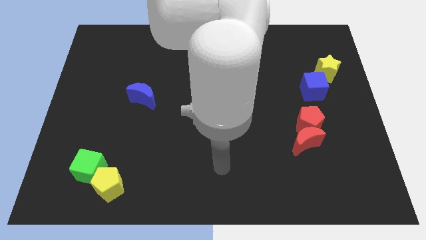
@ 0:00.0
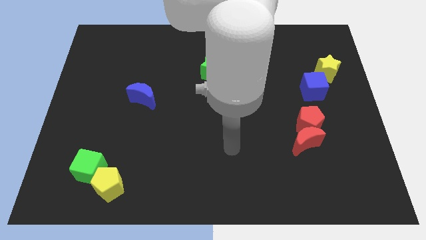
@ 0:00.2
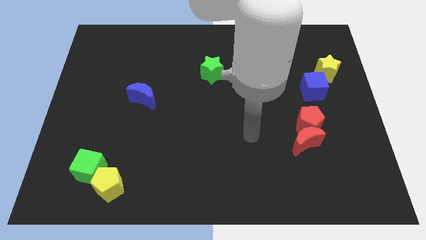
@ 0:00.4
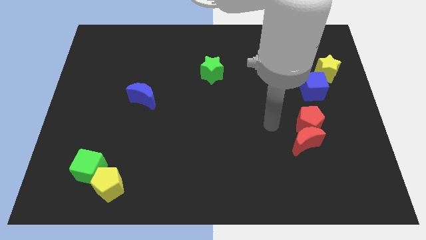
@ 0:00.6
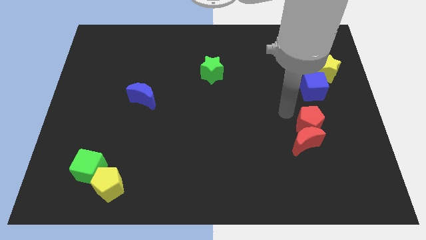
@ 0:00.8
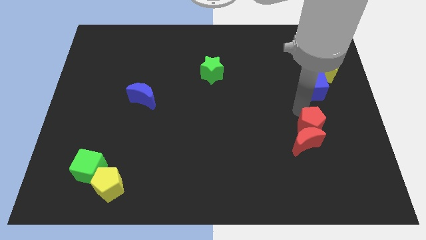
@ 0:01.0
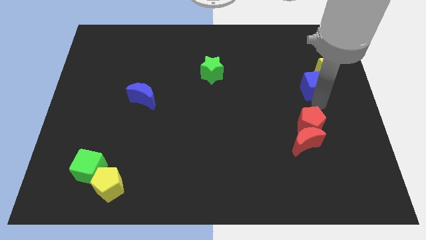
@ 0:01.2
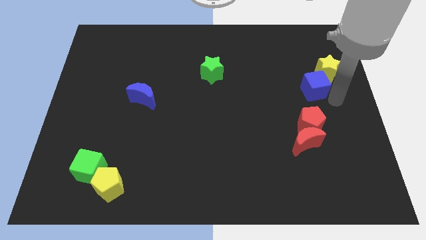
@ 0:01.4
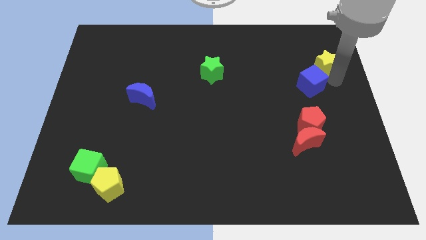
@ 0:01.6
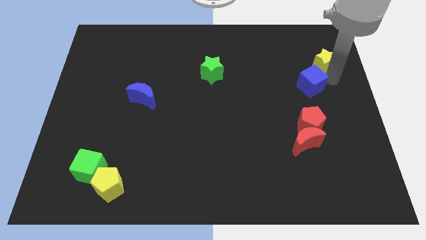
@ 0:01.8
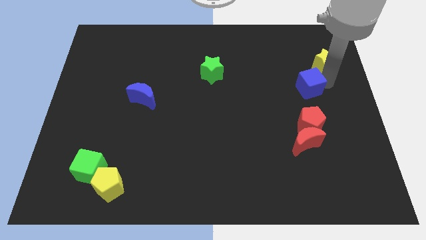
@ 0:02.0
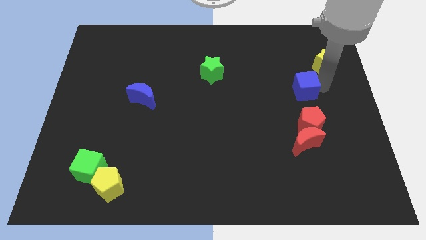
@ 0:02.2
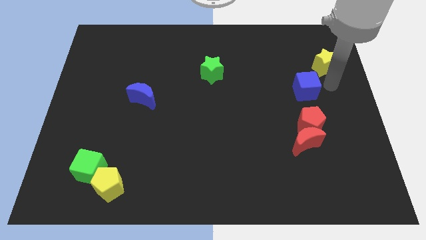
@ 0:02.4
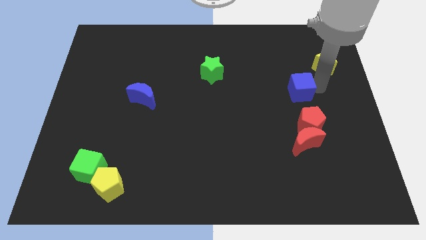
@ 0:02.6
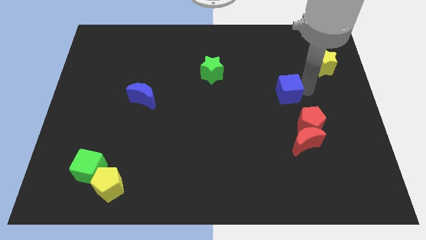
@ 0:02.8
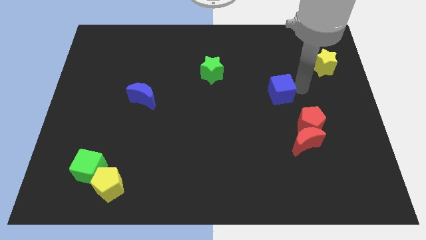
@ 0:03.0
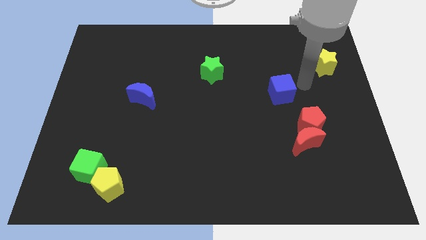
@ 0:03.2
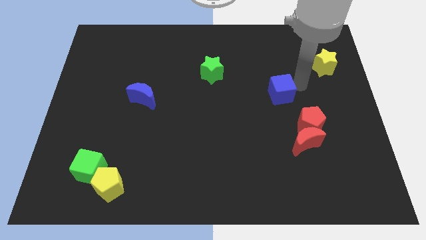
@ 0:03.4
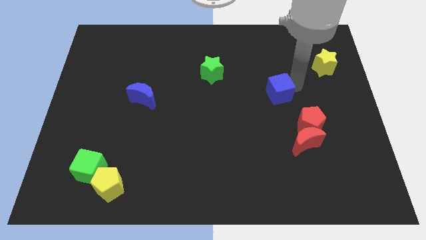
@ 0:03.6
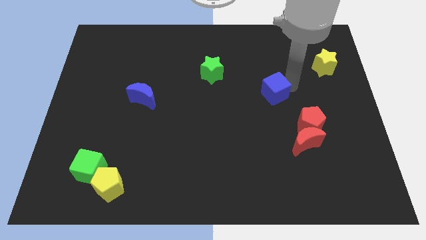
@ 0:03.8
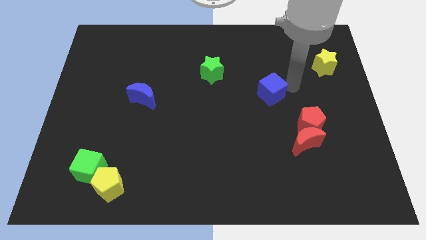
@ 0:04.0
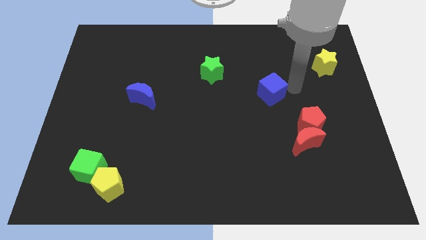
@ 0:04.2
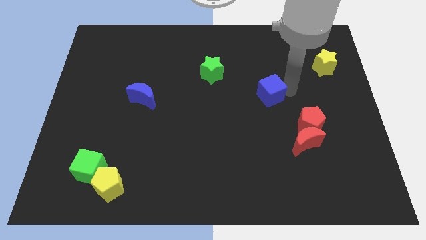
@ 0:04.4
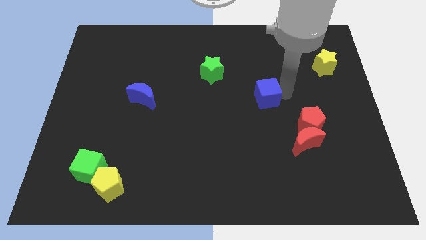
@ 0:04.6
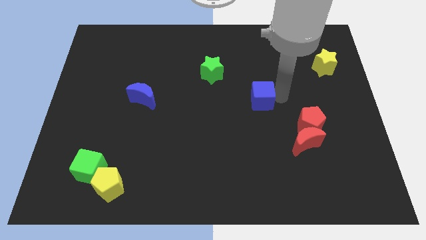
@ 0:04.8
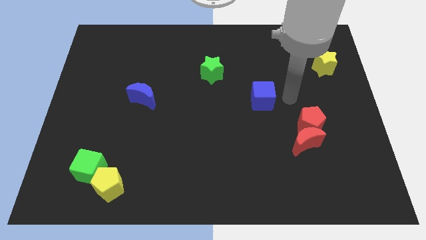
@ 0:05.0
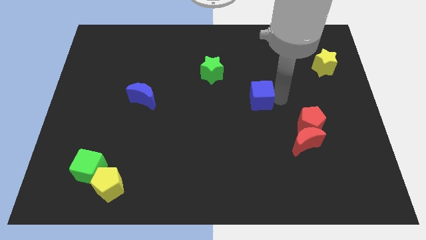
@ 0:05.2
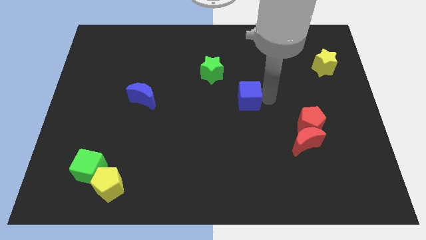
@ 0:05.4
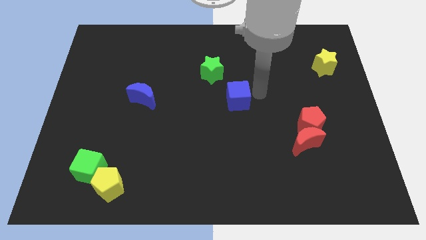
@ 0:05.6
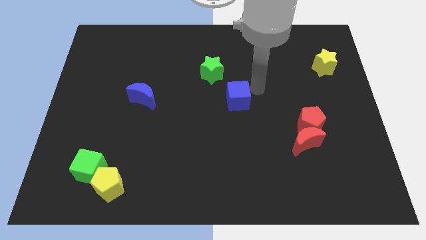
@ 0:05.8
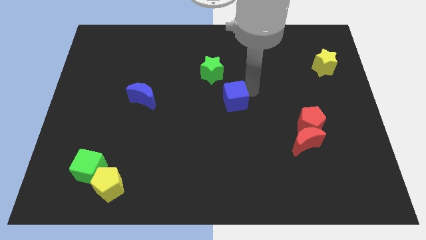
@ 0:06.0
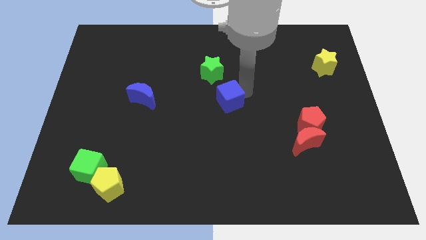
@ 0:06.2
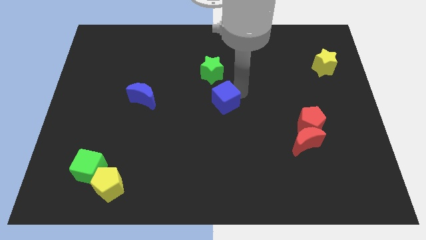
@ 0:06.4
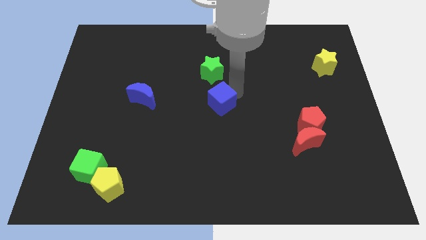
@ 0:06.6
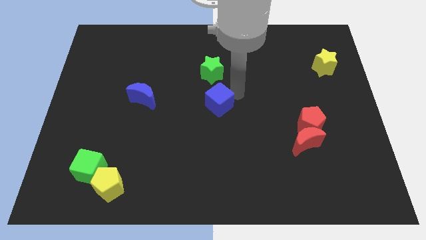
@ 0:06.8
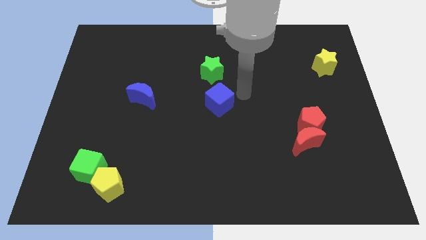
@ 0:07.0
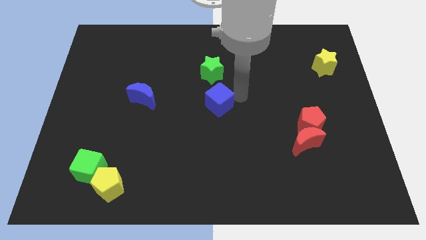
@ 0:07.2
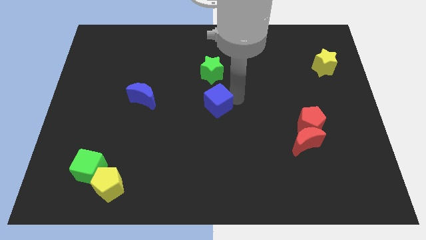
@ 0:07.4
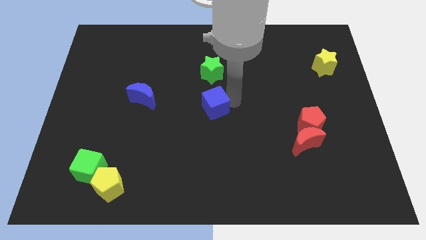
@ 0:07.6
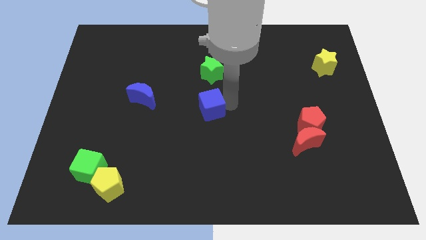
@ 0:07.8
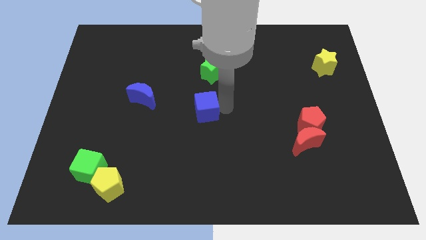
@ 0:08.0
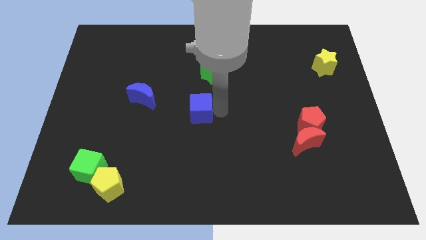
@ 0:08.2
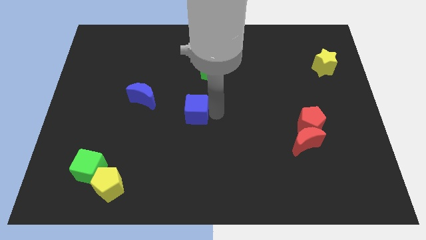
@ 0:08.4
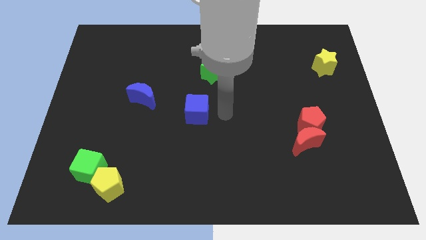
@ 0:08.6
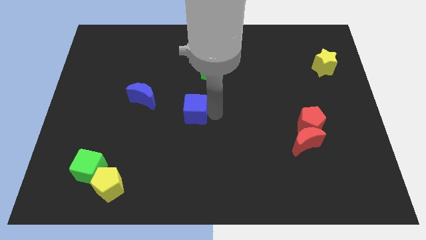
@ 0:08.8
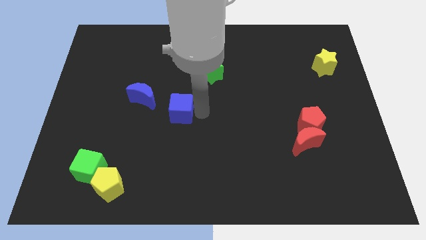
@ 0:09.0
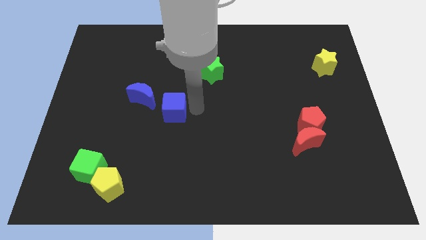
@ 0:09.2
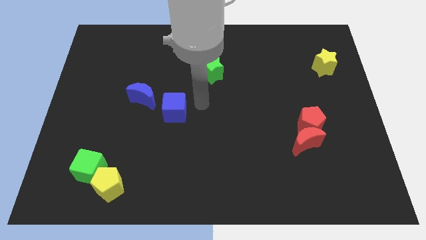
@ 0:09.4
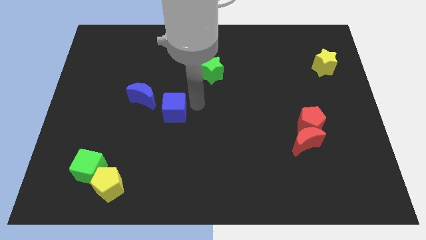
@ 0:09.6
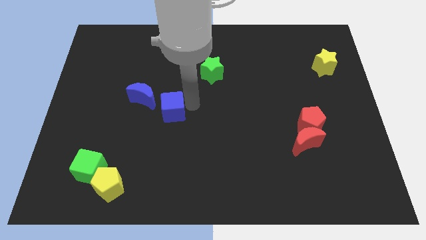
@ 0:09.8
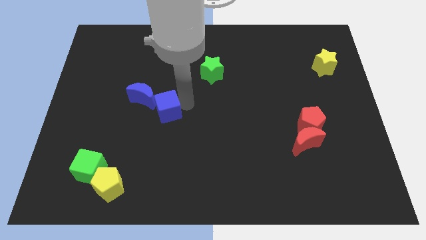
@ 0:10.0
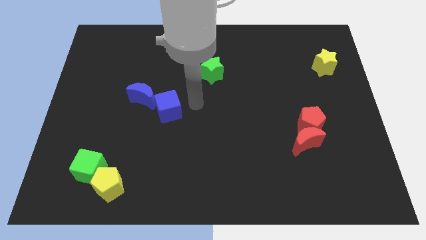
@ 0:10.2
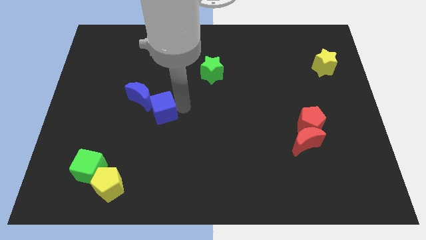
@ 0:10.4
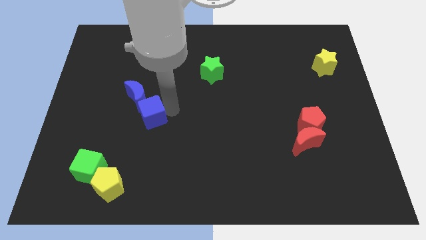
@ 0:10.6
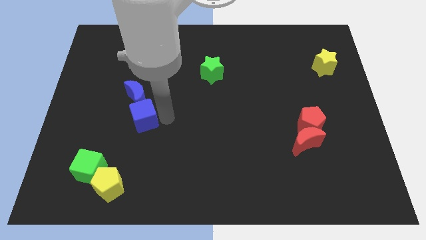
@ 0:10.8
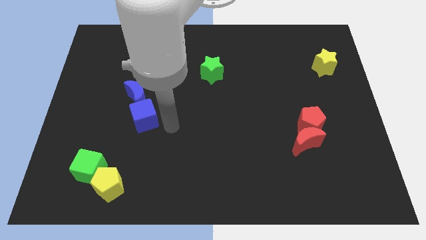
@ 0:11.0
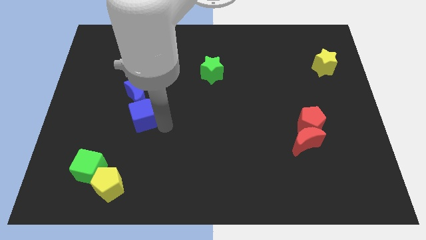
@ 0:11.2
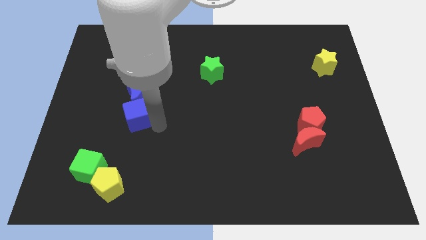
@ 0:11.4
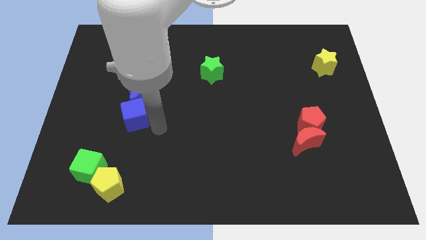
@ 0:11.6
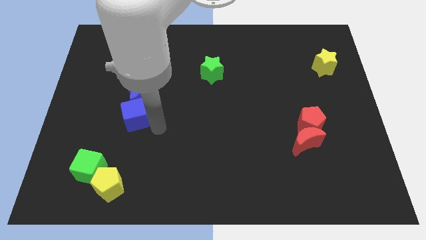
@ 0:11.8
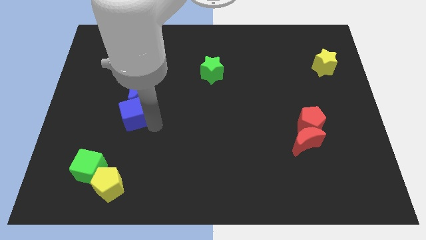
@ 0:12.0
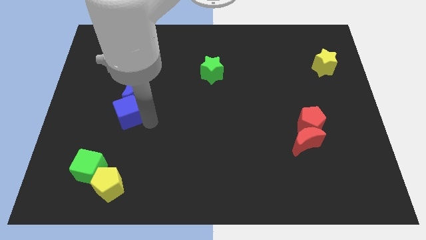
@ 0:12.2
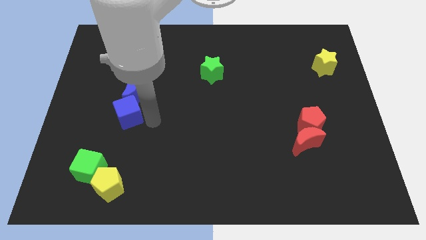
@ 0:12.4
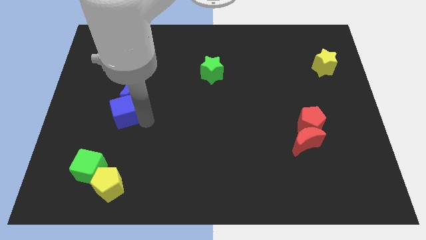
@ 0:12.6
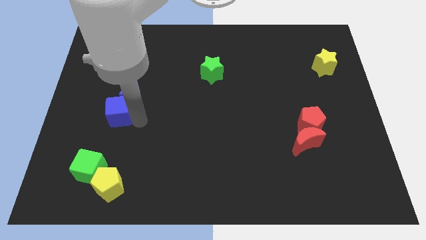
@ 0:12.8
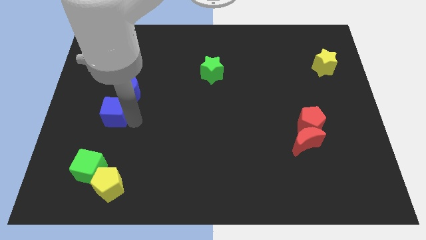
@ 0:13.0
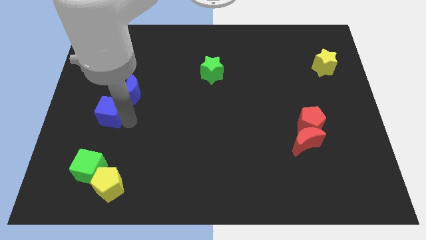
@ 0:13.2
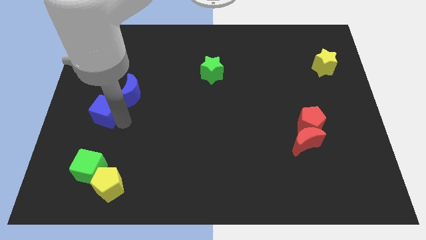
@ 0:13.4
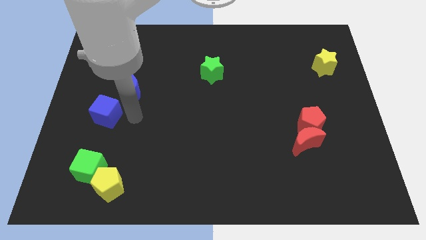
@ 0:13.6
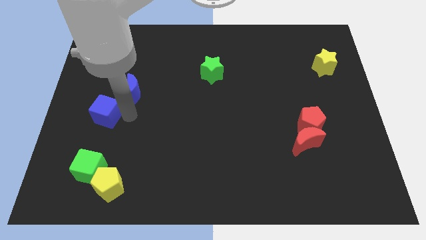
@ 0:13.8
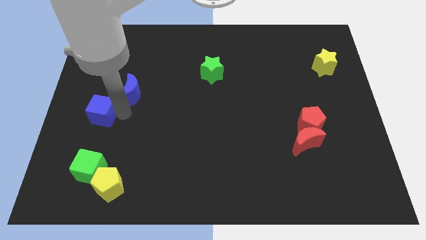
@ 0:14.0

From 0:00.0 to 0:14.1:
put the blue cube to the center left
